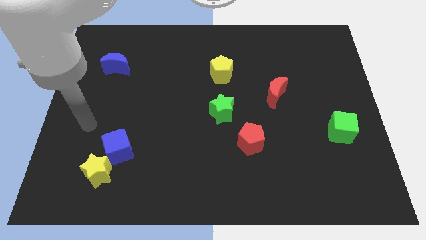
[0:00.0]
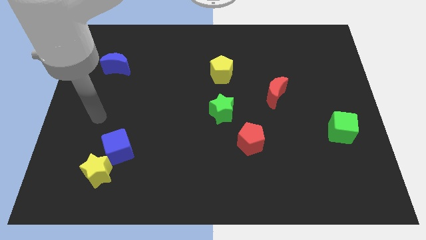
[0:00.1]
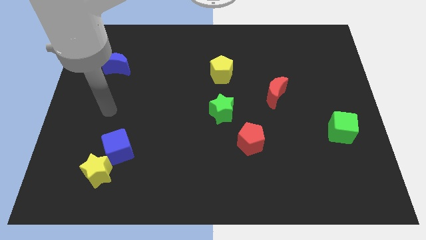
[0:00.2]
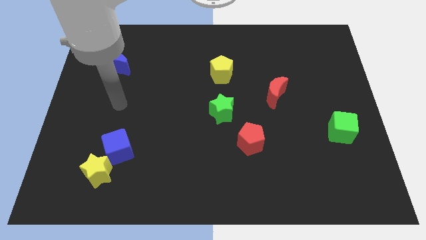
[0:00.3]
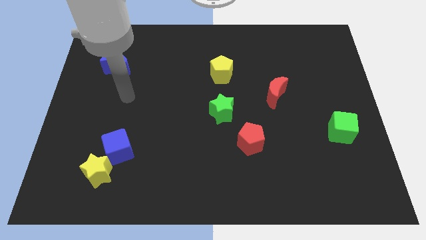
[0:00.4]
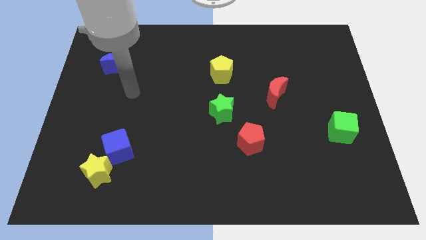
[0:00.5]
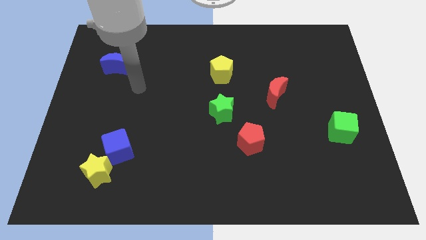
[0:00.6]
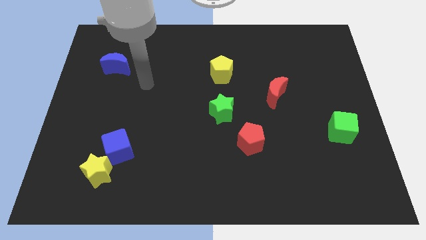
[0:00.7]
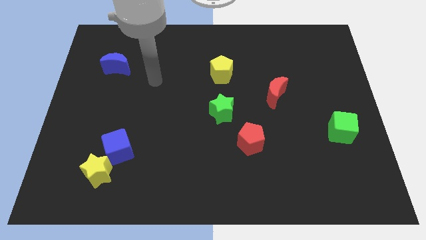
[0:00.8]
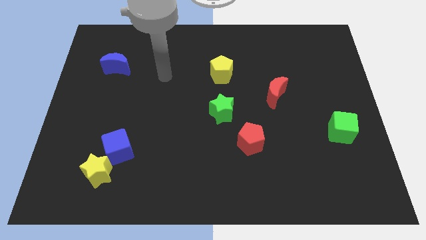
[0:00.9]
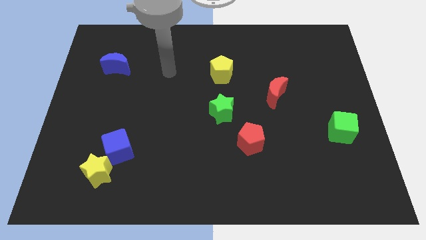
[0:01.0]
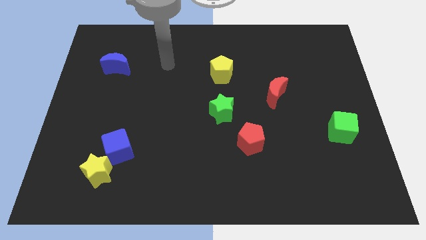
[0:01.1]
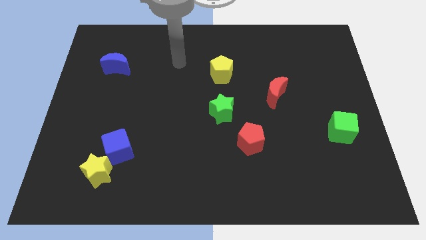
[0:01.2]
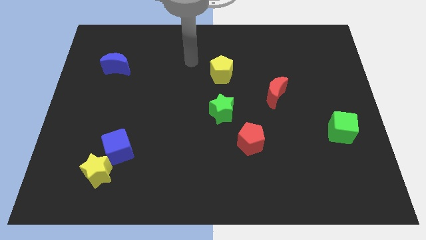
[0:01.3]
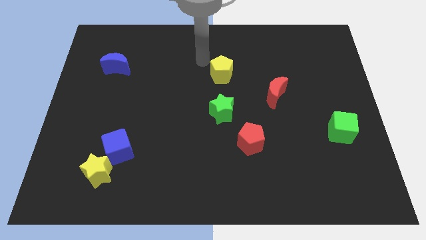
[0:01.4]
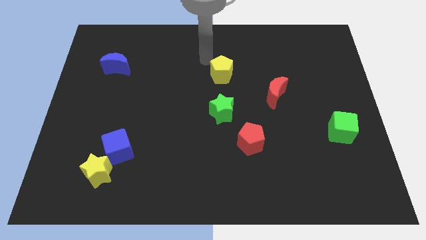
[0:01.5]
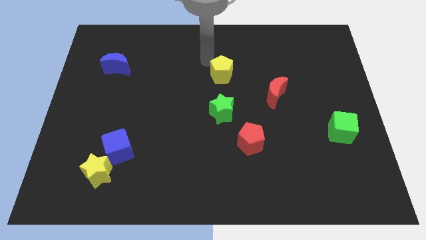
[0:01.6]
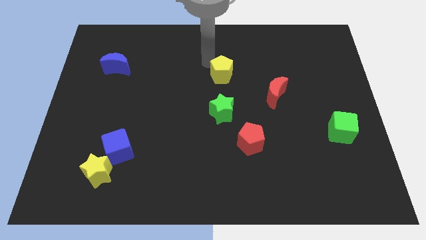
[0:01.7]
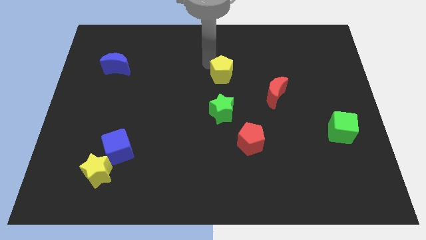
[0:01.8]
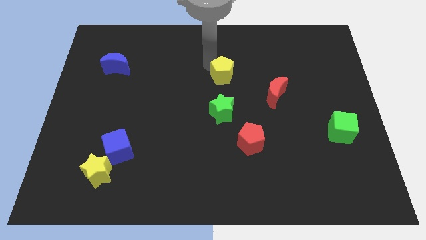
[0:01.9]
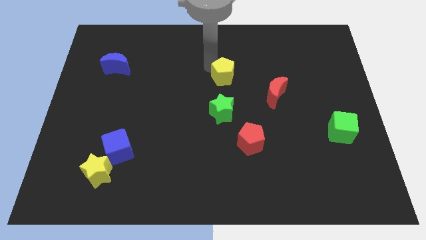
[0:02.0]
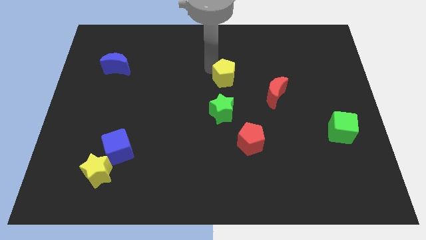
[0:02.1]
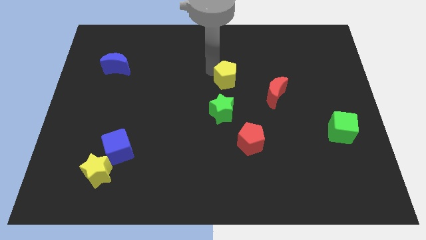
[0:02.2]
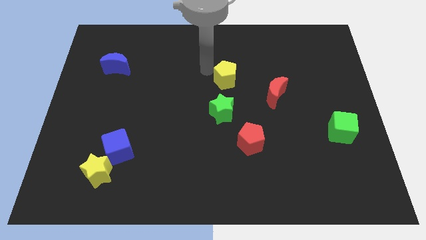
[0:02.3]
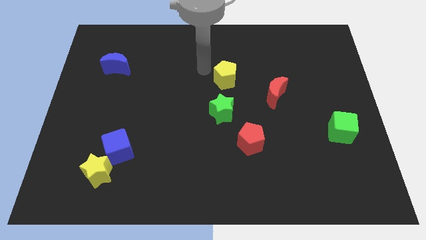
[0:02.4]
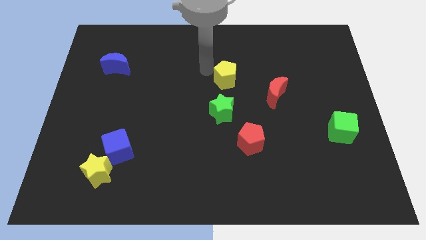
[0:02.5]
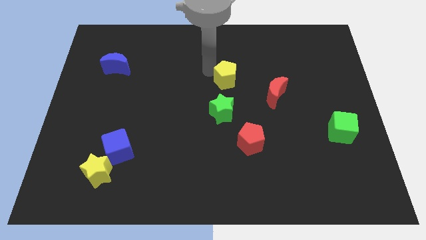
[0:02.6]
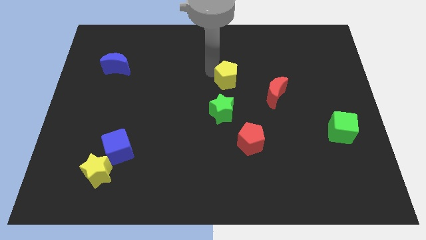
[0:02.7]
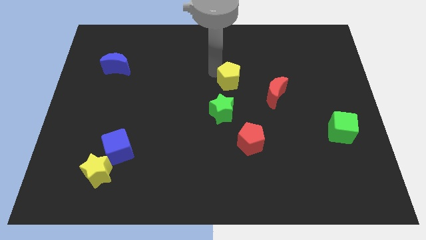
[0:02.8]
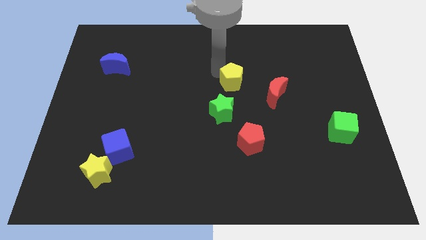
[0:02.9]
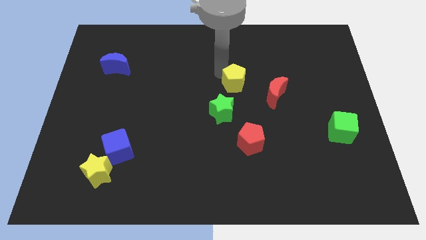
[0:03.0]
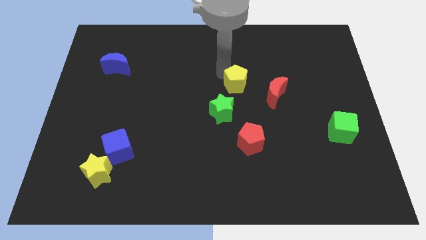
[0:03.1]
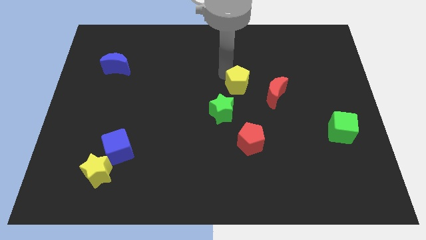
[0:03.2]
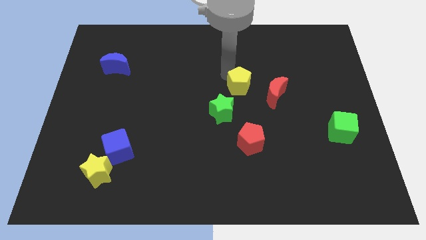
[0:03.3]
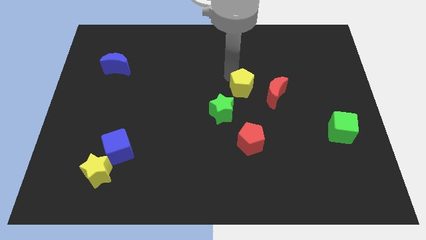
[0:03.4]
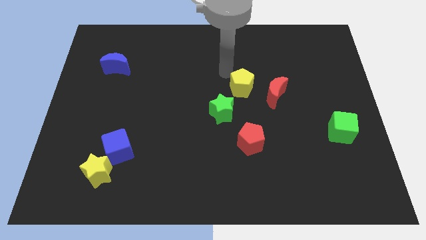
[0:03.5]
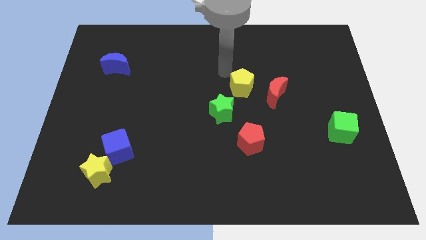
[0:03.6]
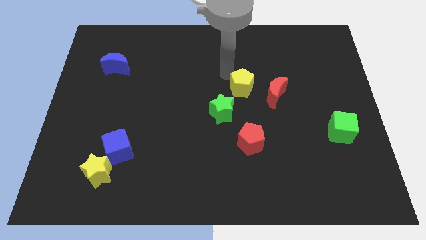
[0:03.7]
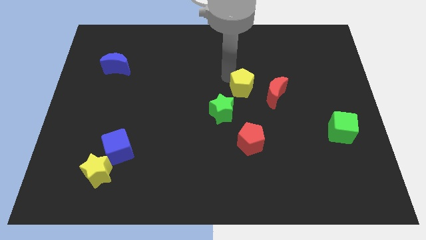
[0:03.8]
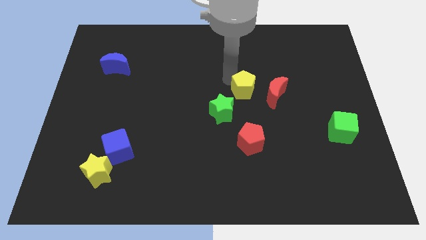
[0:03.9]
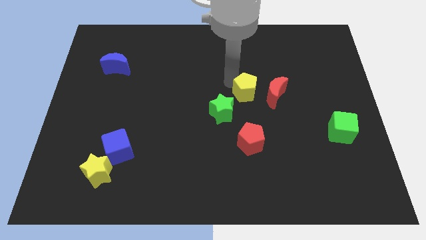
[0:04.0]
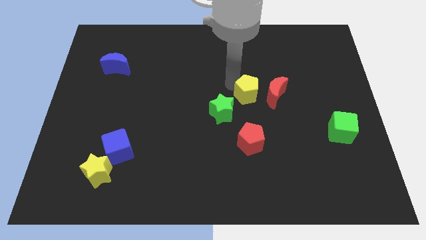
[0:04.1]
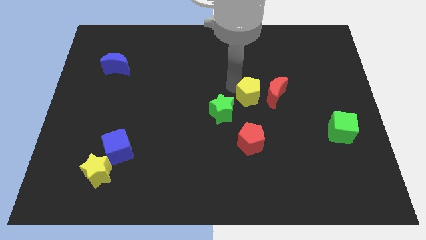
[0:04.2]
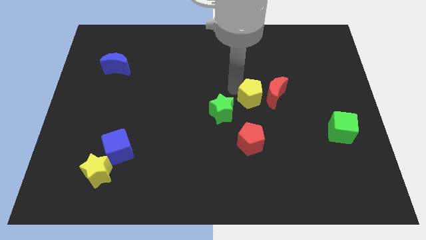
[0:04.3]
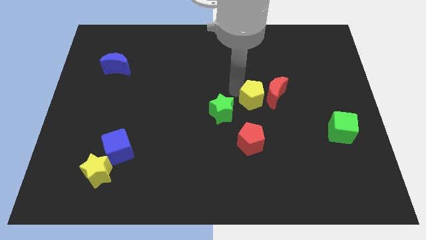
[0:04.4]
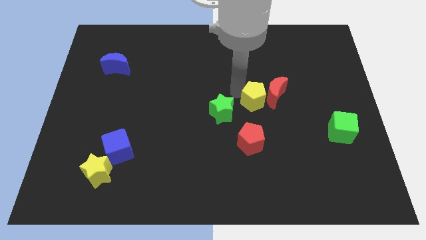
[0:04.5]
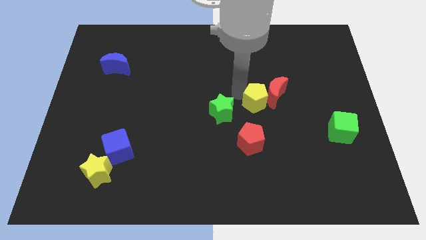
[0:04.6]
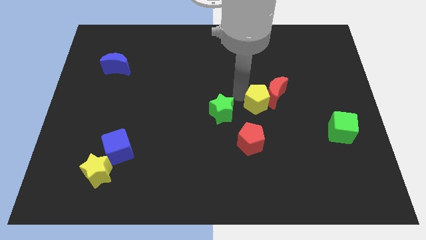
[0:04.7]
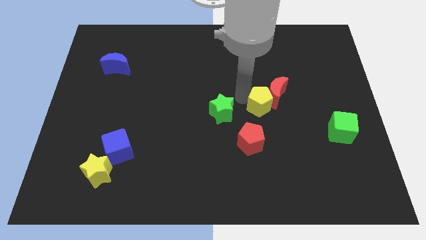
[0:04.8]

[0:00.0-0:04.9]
move the yellow pentagon below the red moon

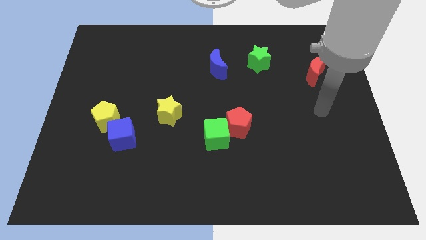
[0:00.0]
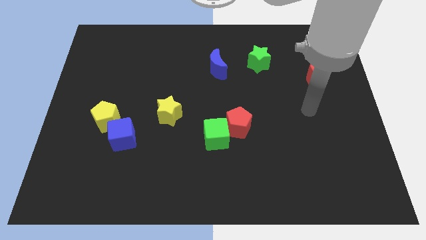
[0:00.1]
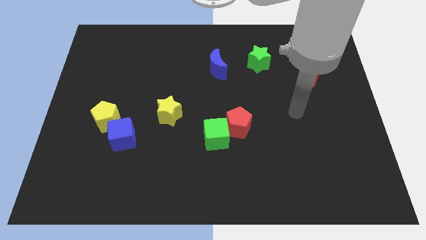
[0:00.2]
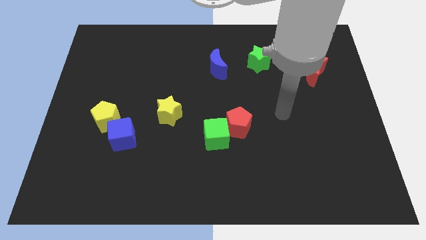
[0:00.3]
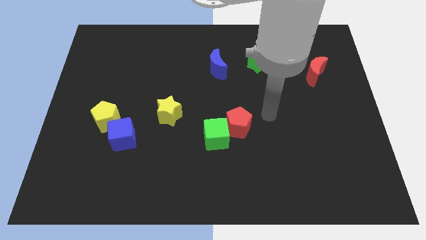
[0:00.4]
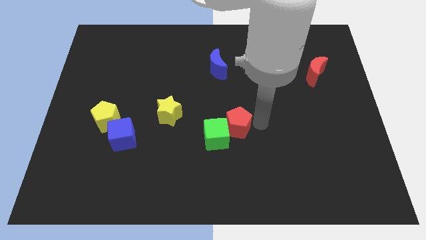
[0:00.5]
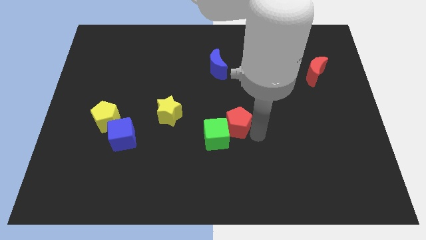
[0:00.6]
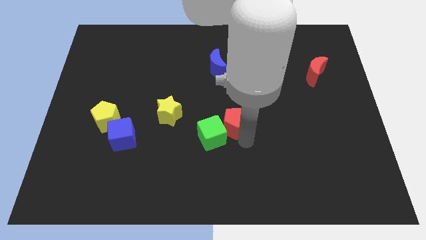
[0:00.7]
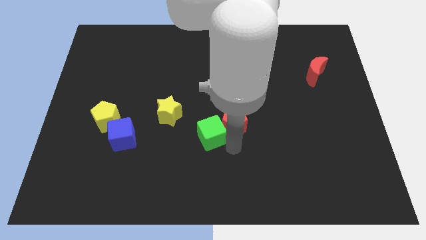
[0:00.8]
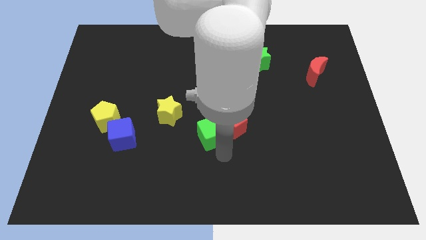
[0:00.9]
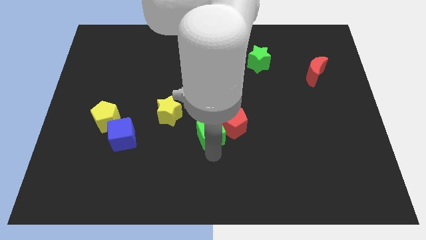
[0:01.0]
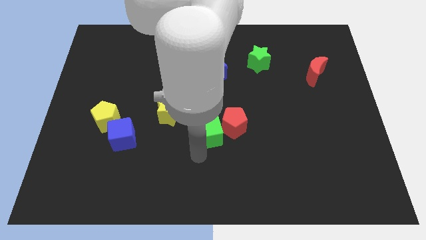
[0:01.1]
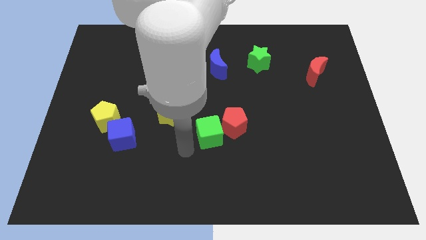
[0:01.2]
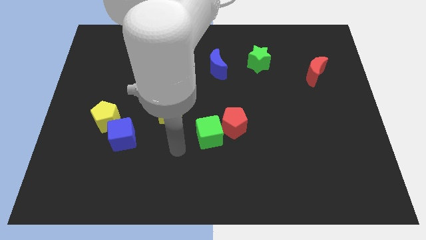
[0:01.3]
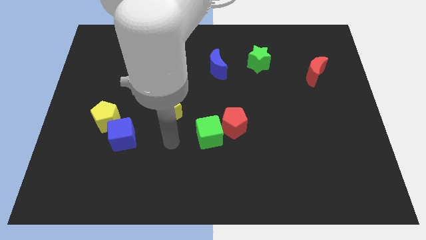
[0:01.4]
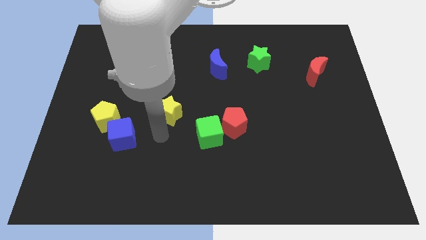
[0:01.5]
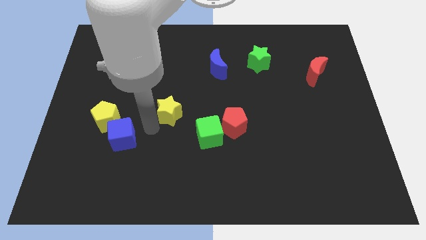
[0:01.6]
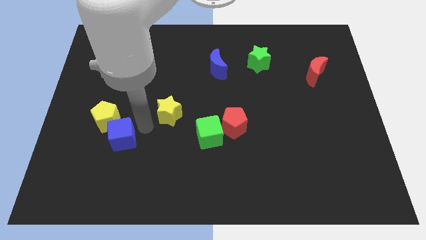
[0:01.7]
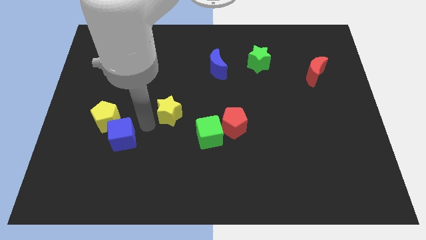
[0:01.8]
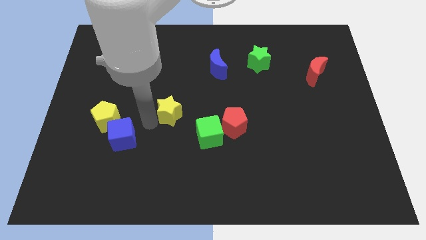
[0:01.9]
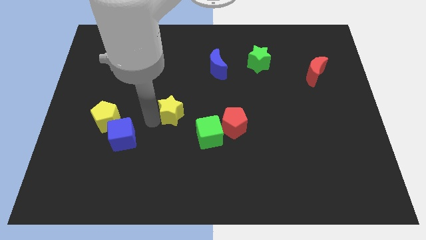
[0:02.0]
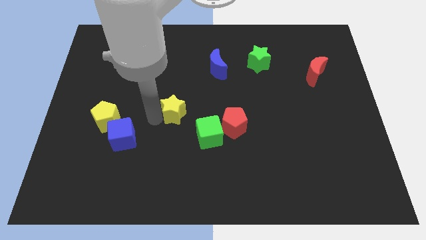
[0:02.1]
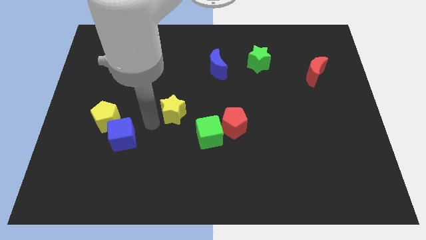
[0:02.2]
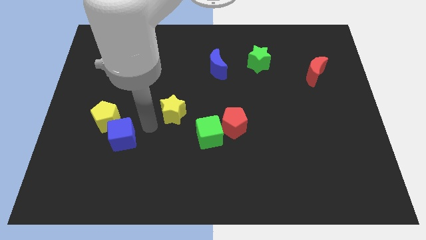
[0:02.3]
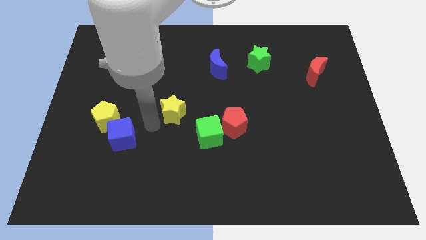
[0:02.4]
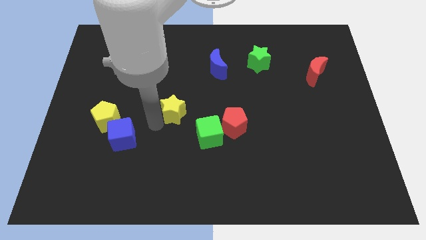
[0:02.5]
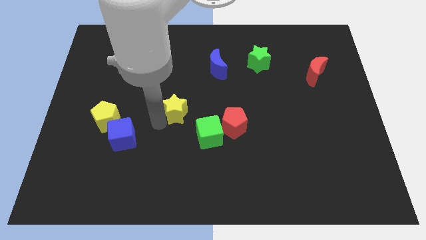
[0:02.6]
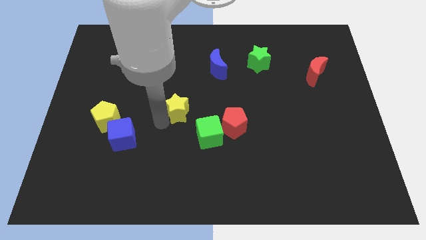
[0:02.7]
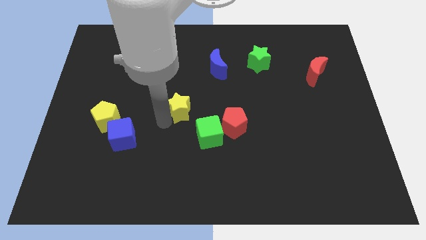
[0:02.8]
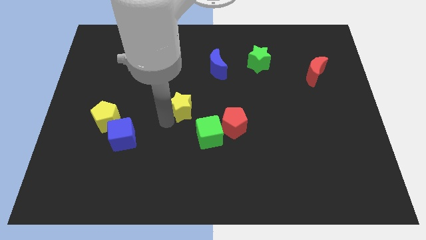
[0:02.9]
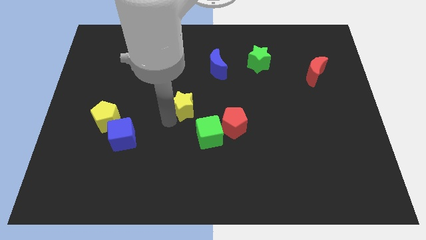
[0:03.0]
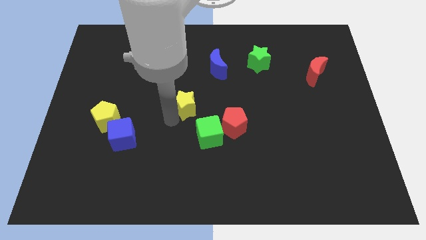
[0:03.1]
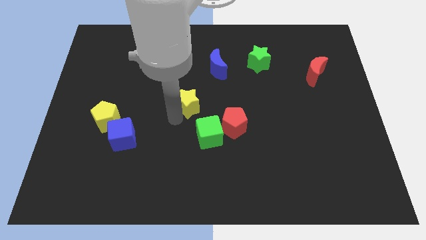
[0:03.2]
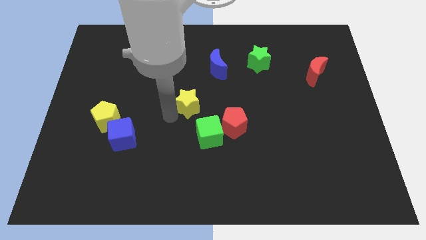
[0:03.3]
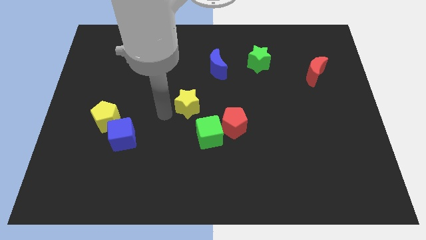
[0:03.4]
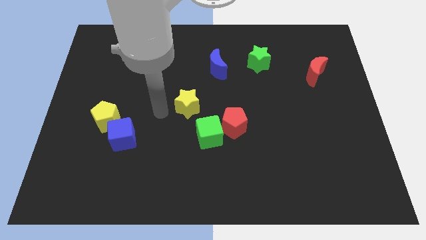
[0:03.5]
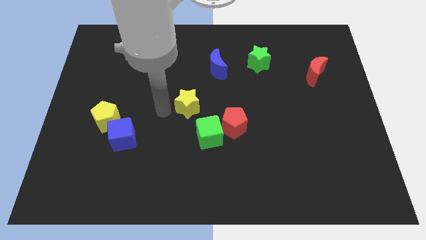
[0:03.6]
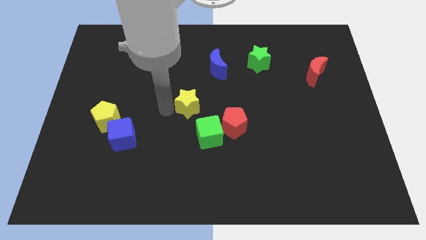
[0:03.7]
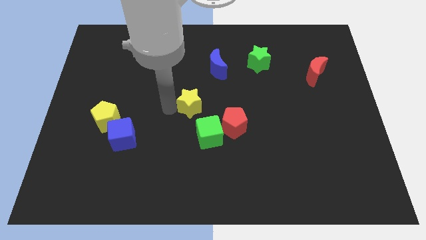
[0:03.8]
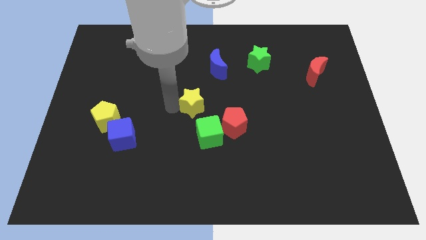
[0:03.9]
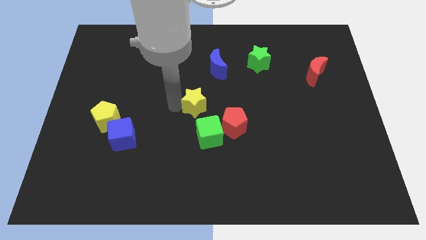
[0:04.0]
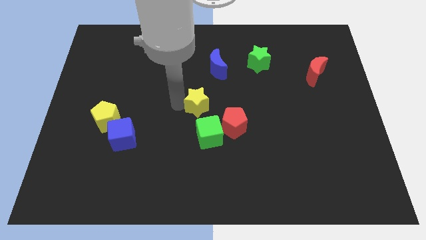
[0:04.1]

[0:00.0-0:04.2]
slide the yellow star to the bottom side of the blue moon
